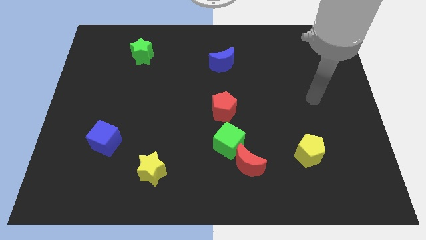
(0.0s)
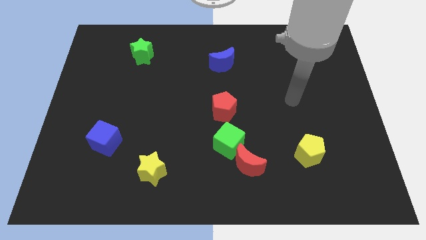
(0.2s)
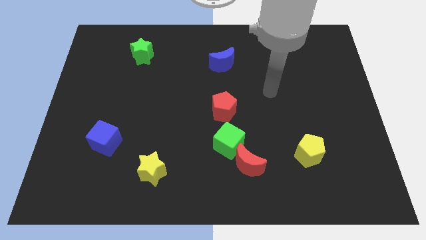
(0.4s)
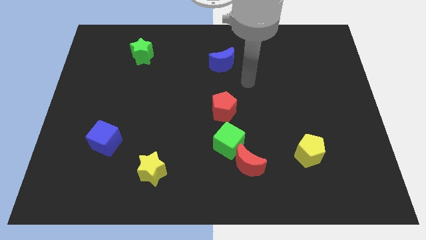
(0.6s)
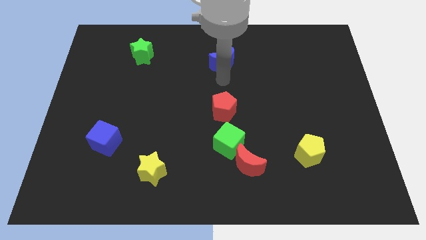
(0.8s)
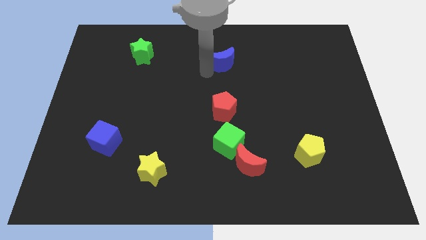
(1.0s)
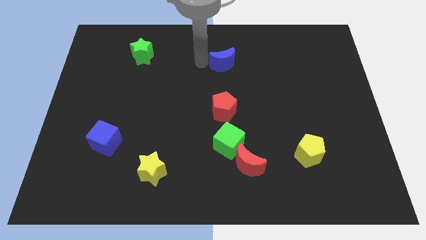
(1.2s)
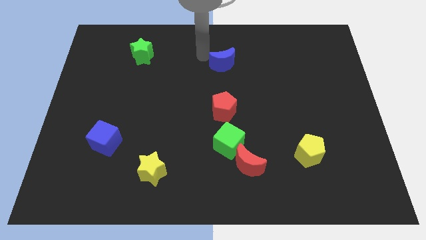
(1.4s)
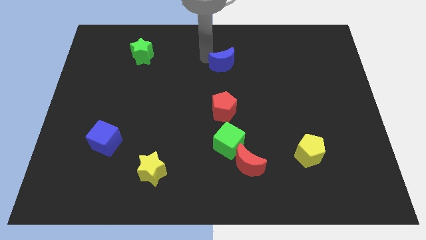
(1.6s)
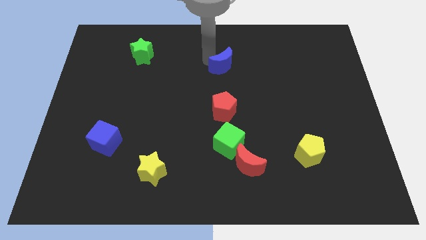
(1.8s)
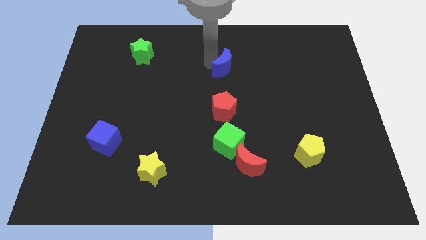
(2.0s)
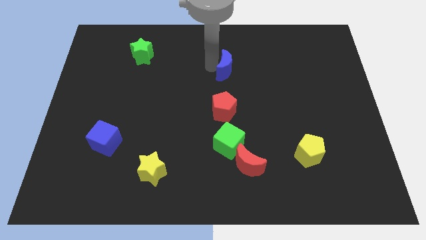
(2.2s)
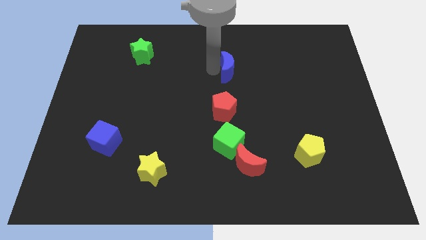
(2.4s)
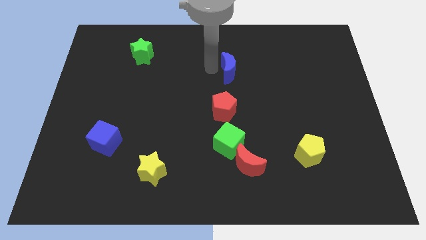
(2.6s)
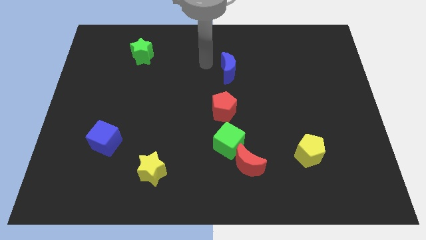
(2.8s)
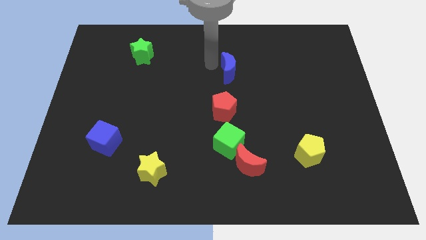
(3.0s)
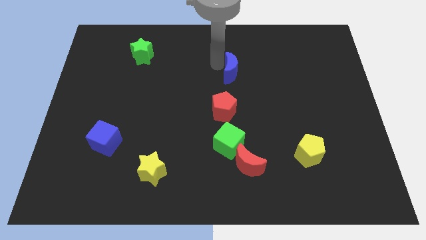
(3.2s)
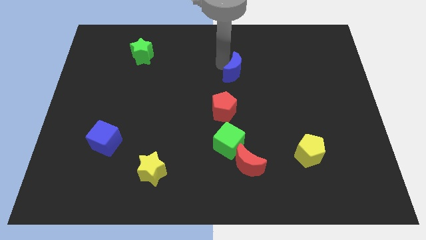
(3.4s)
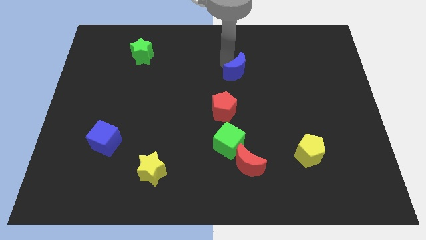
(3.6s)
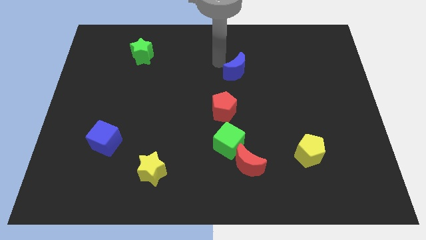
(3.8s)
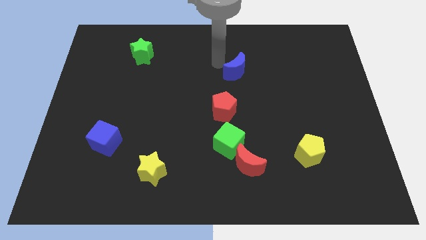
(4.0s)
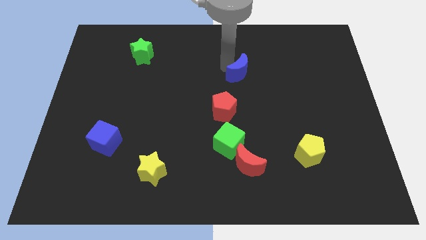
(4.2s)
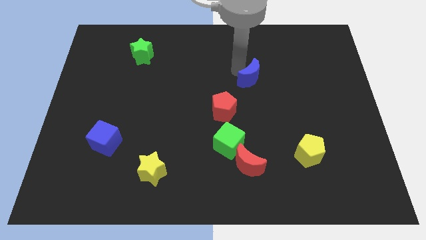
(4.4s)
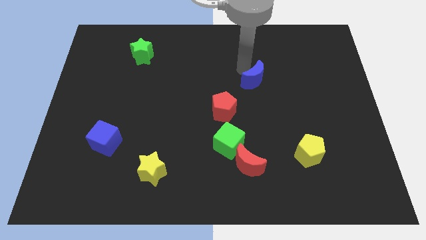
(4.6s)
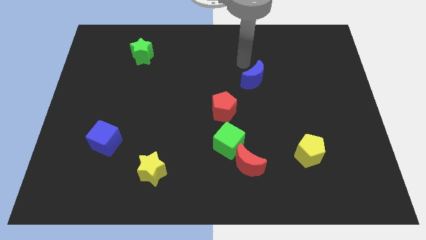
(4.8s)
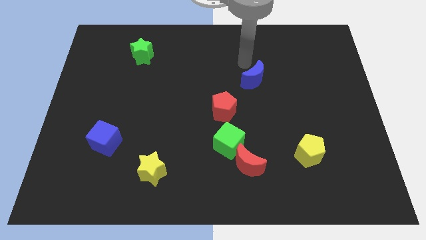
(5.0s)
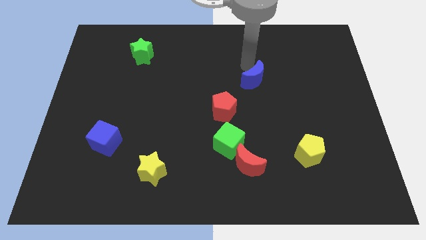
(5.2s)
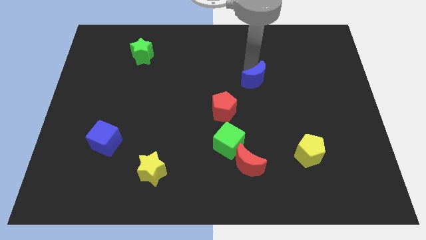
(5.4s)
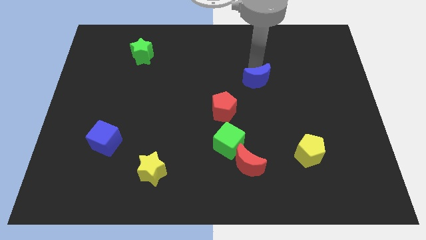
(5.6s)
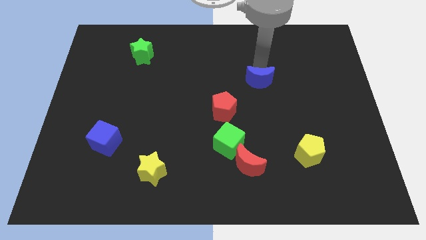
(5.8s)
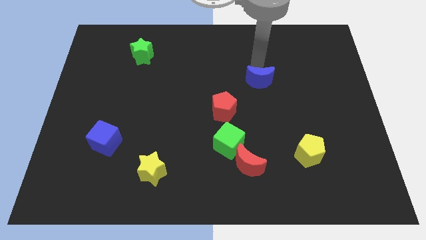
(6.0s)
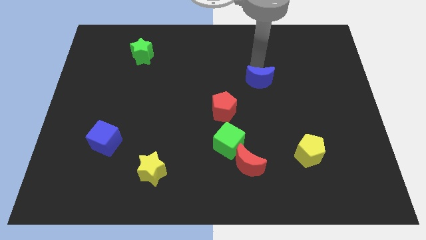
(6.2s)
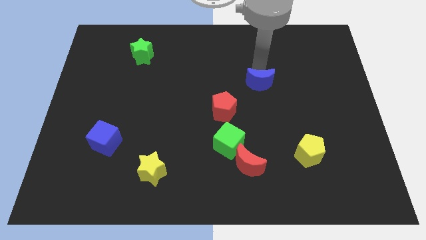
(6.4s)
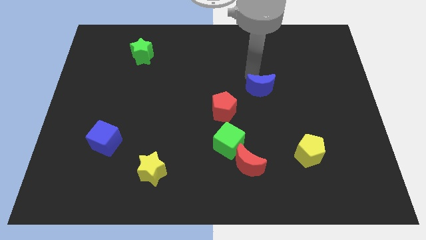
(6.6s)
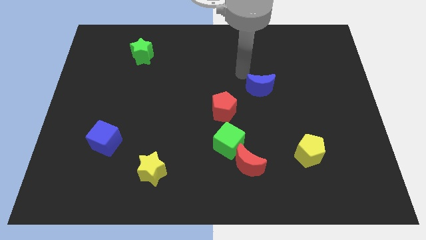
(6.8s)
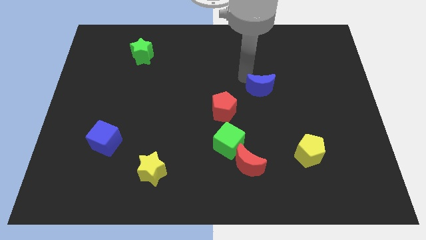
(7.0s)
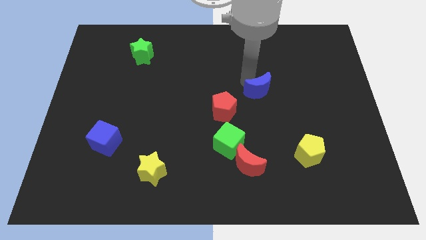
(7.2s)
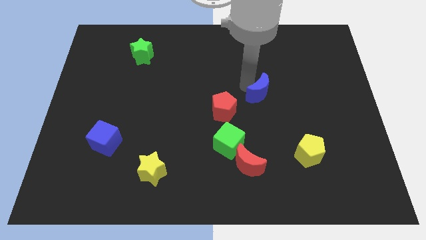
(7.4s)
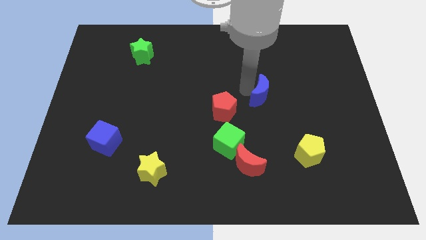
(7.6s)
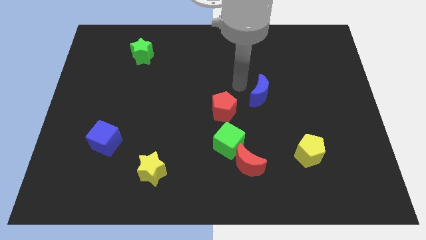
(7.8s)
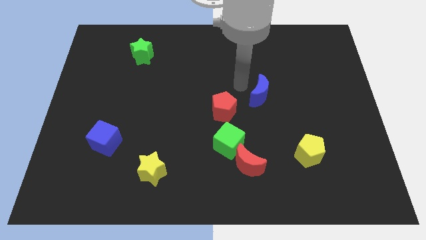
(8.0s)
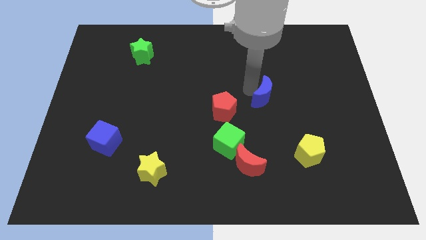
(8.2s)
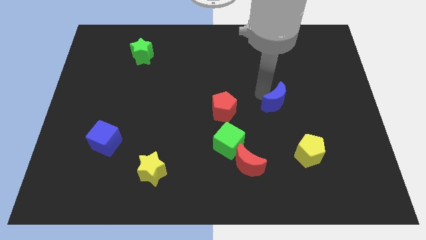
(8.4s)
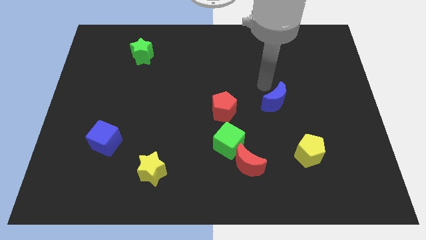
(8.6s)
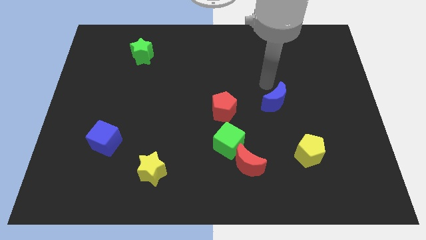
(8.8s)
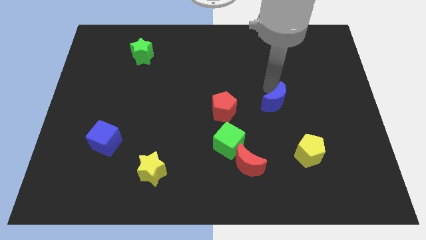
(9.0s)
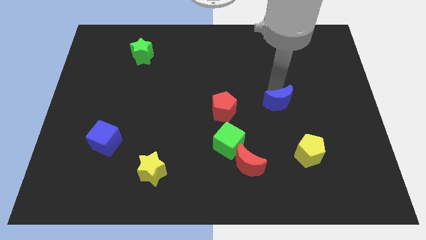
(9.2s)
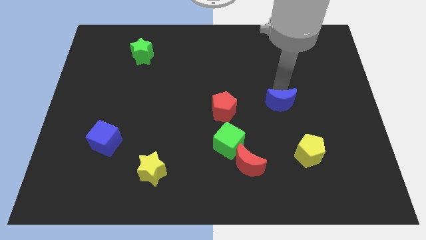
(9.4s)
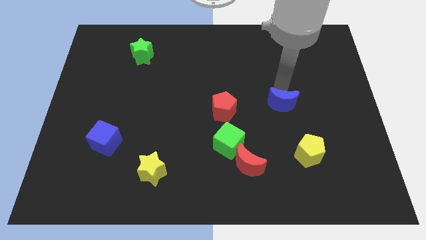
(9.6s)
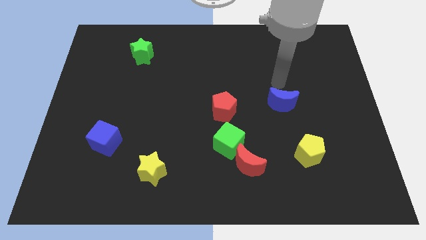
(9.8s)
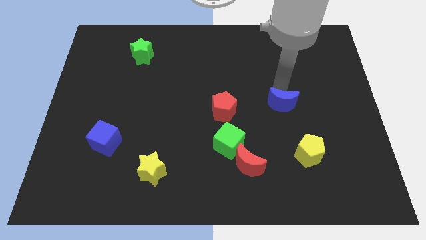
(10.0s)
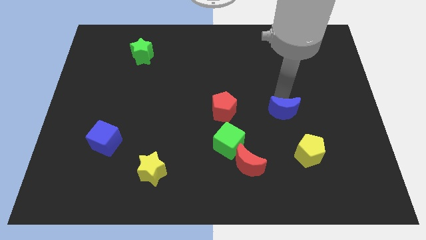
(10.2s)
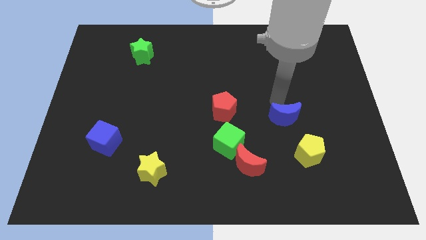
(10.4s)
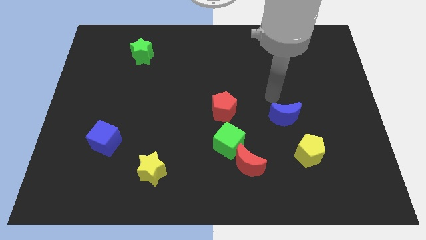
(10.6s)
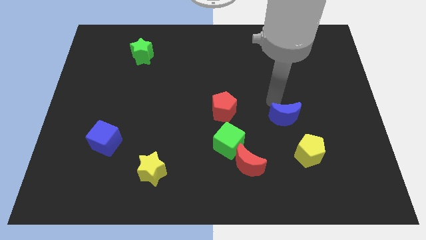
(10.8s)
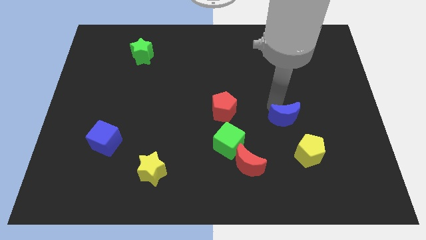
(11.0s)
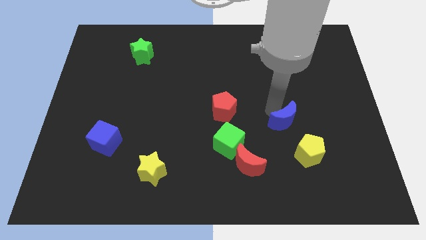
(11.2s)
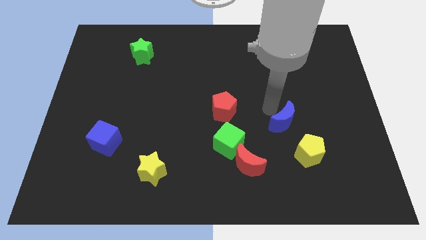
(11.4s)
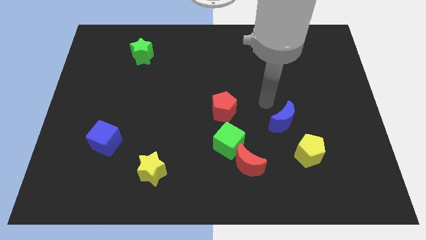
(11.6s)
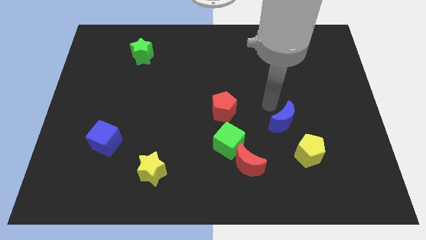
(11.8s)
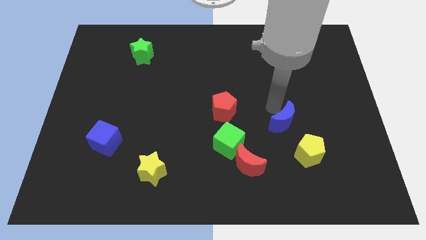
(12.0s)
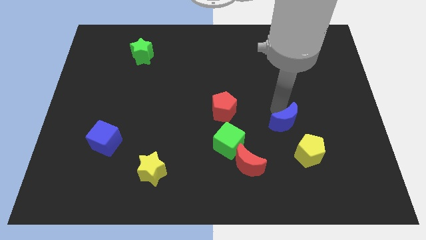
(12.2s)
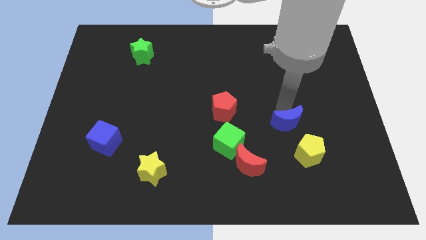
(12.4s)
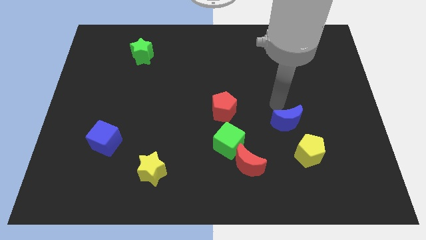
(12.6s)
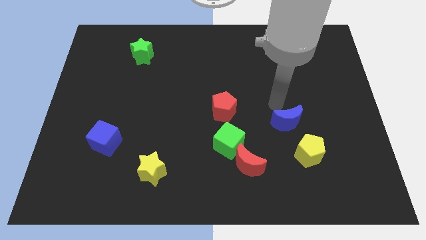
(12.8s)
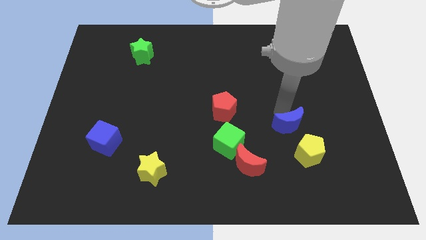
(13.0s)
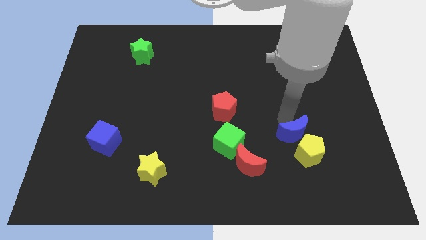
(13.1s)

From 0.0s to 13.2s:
move the blue moon to the yellow pentagon

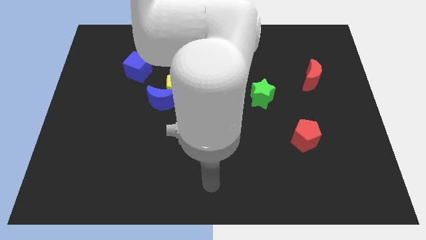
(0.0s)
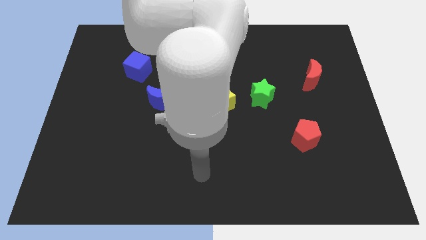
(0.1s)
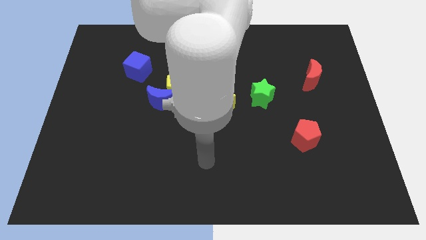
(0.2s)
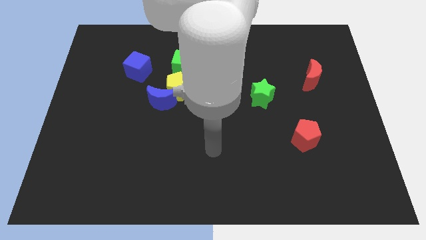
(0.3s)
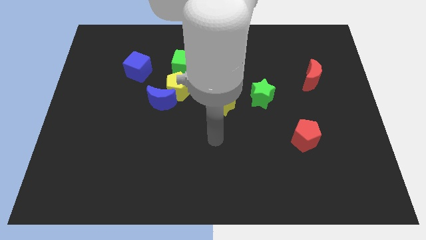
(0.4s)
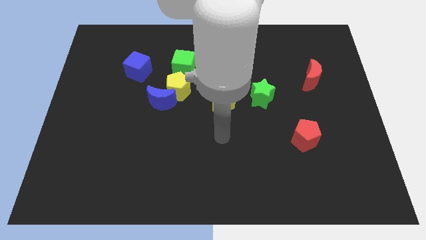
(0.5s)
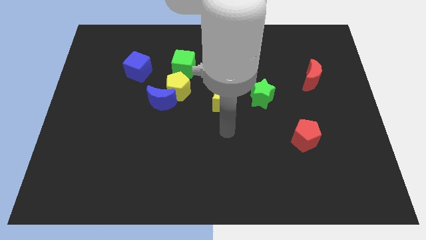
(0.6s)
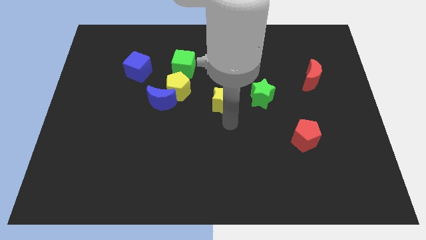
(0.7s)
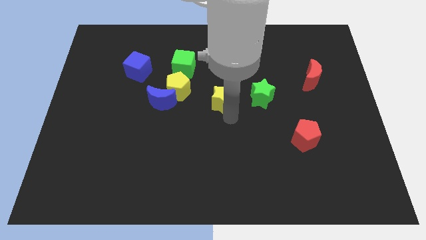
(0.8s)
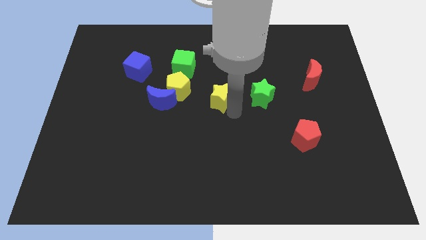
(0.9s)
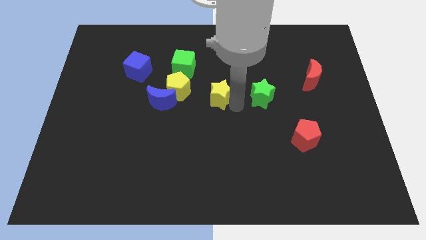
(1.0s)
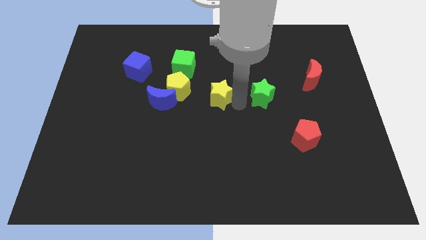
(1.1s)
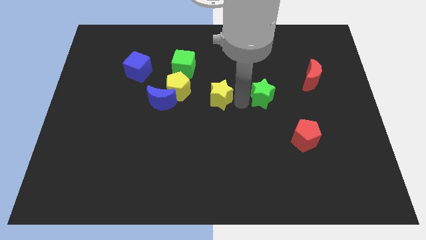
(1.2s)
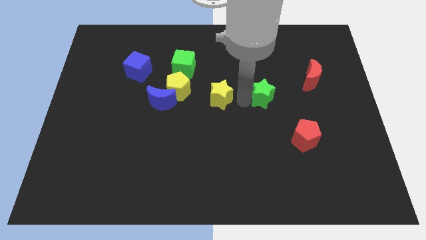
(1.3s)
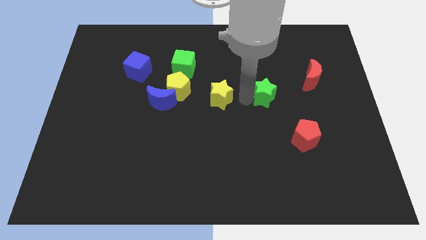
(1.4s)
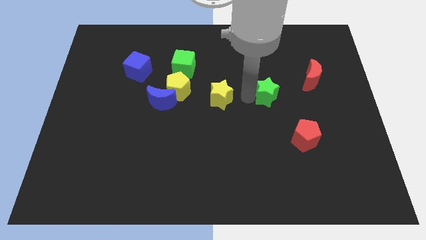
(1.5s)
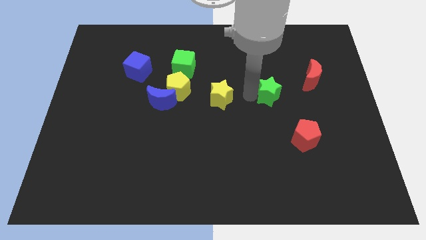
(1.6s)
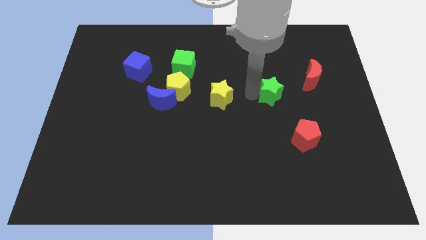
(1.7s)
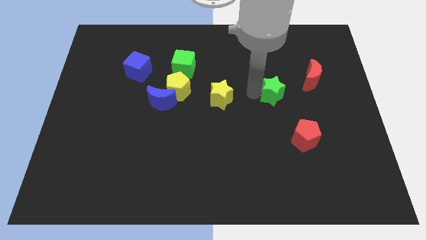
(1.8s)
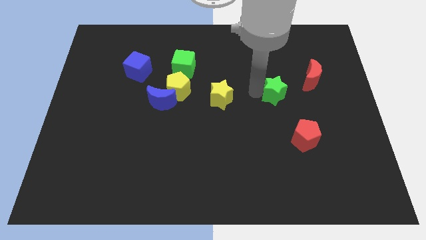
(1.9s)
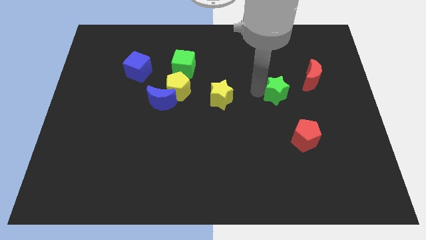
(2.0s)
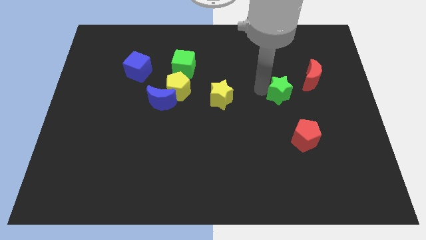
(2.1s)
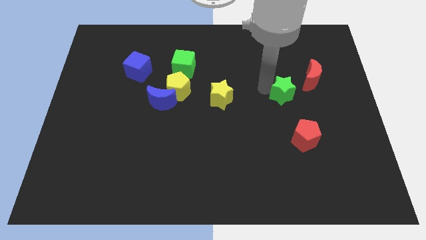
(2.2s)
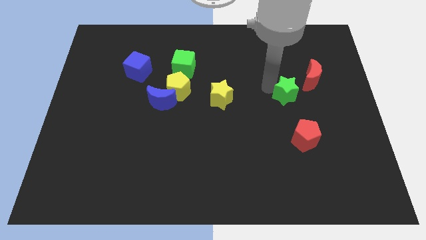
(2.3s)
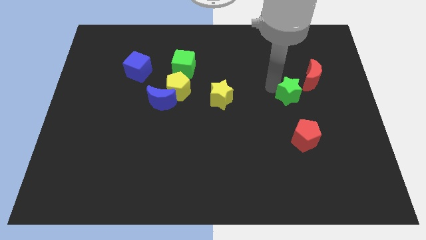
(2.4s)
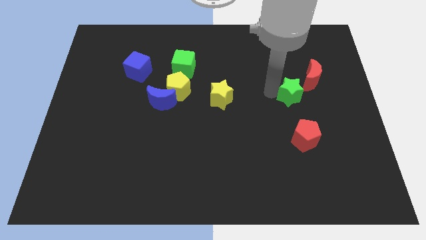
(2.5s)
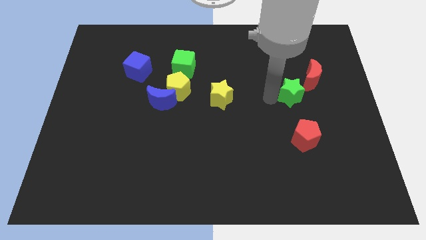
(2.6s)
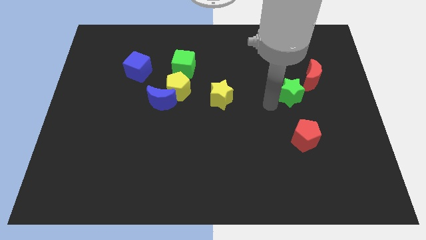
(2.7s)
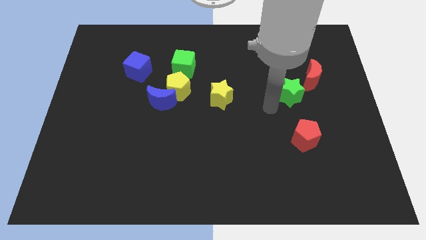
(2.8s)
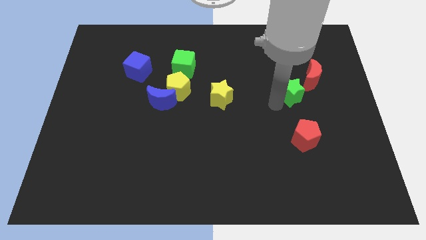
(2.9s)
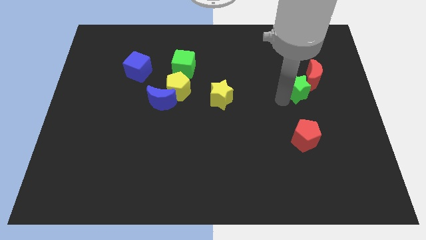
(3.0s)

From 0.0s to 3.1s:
put the green star close to the red moon
